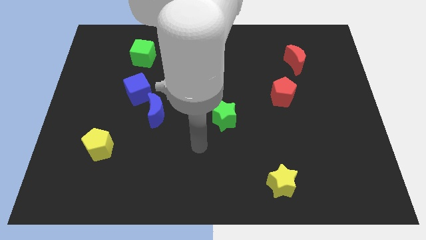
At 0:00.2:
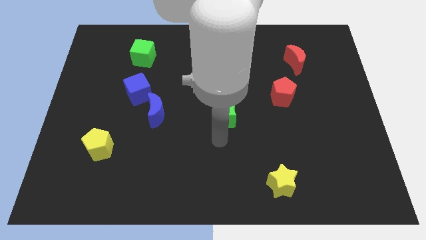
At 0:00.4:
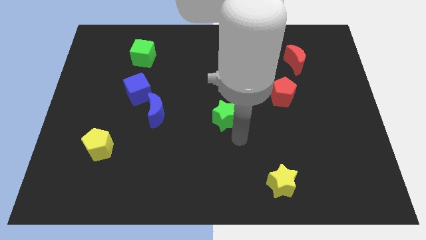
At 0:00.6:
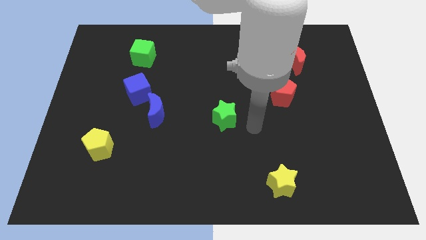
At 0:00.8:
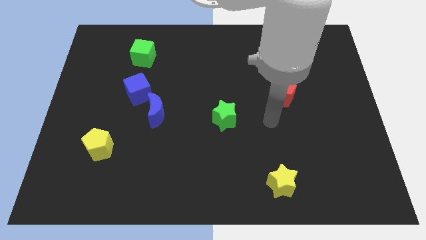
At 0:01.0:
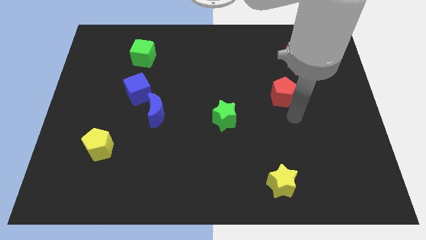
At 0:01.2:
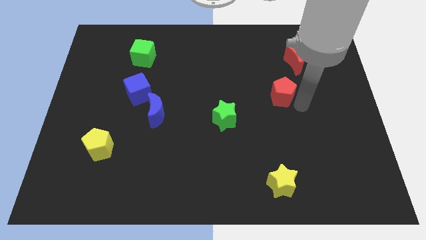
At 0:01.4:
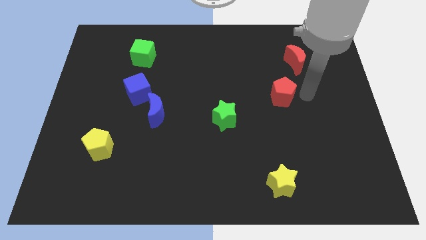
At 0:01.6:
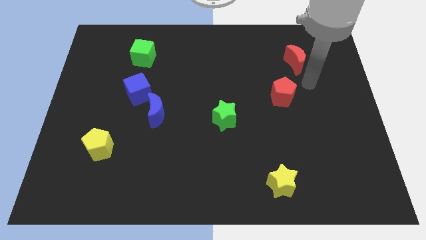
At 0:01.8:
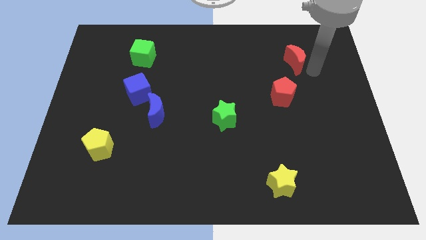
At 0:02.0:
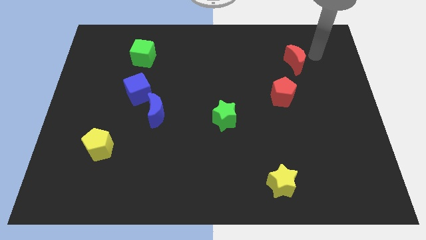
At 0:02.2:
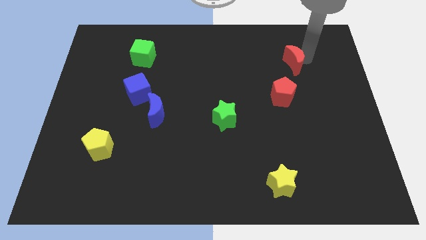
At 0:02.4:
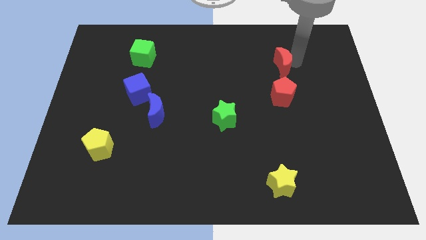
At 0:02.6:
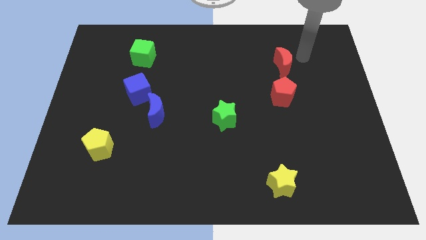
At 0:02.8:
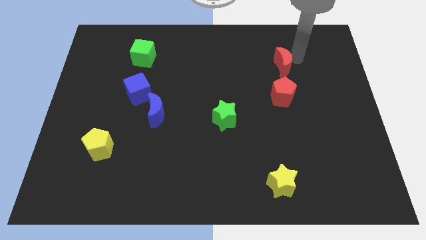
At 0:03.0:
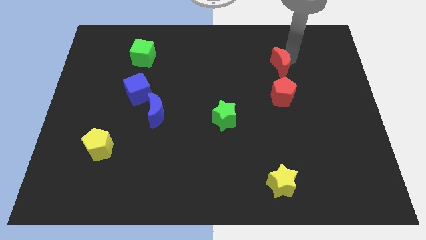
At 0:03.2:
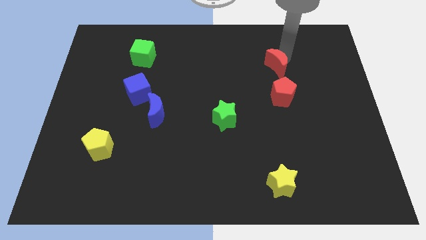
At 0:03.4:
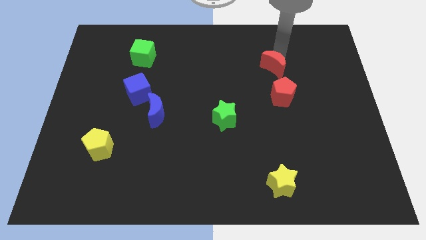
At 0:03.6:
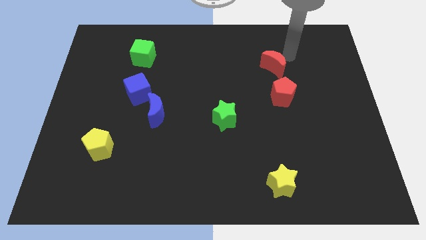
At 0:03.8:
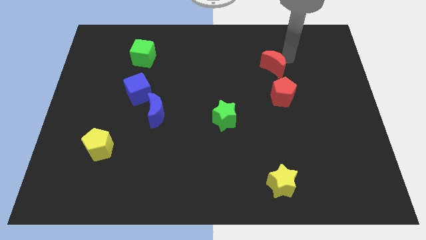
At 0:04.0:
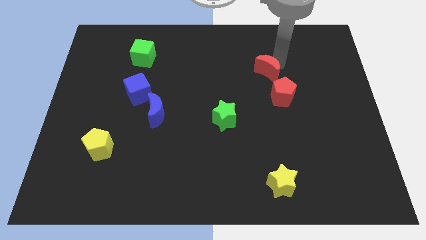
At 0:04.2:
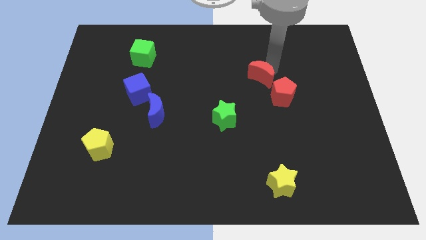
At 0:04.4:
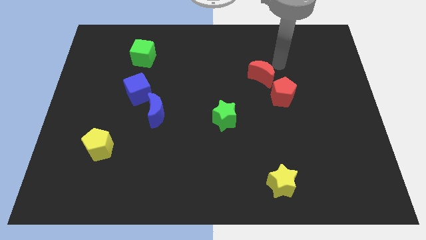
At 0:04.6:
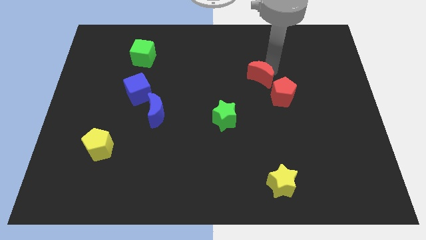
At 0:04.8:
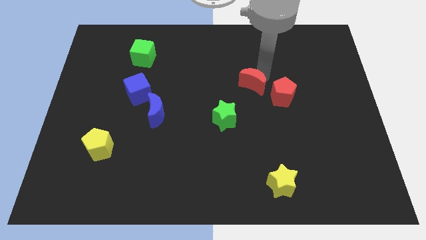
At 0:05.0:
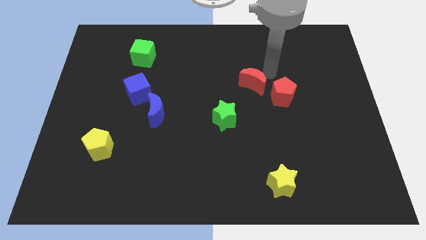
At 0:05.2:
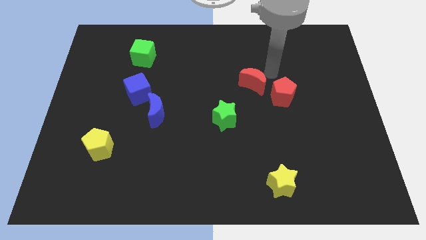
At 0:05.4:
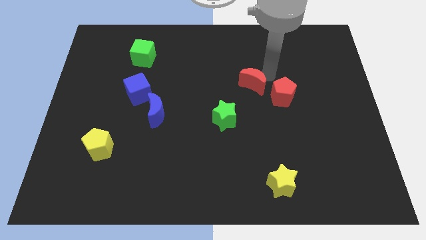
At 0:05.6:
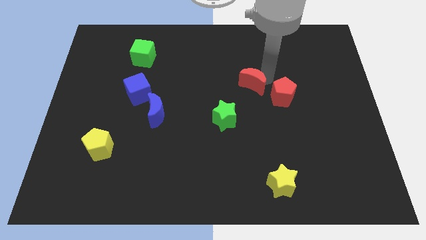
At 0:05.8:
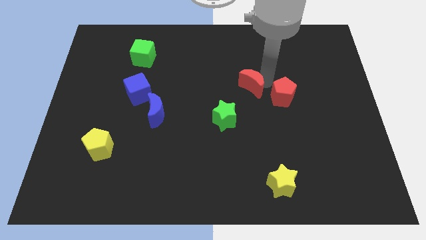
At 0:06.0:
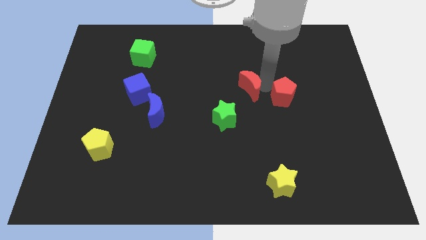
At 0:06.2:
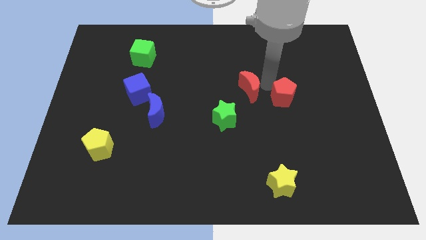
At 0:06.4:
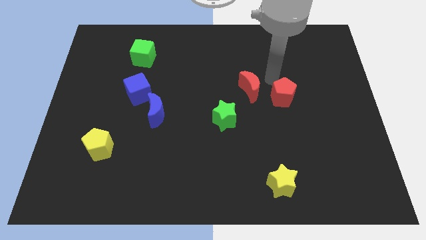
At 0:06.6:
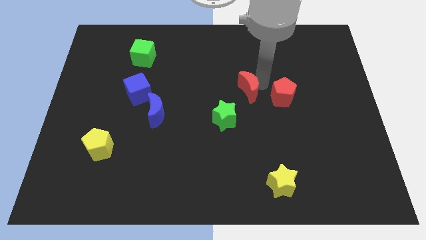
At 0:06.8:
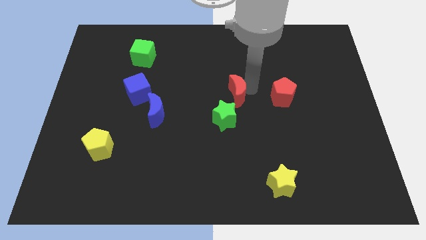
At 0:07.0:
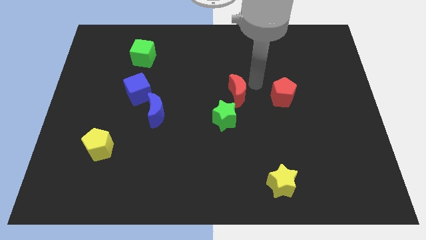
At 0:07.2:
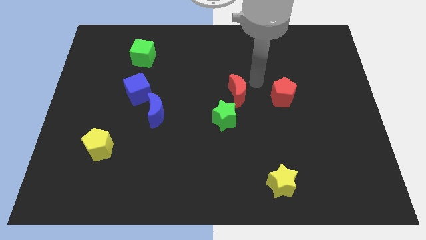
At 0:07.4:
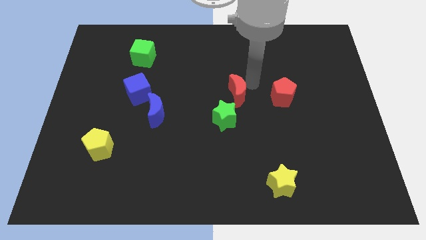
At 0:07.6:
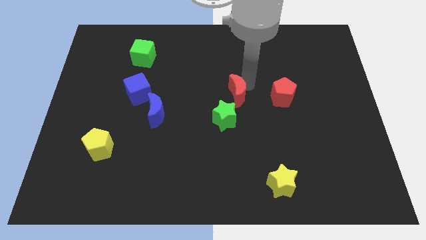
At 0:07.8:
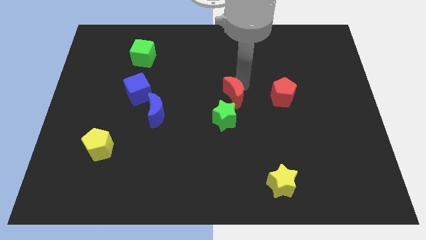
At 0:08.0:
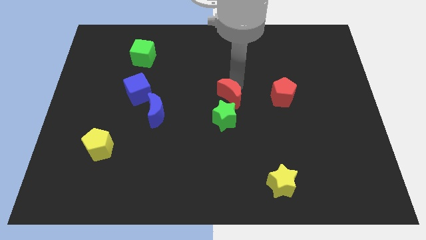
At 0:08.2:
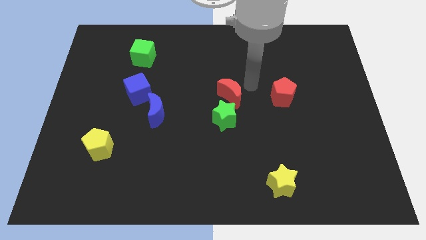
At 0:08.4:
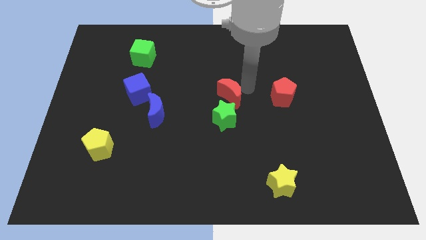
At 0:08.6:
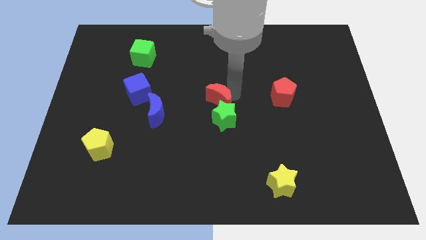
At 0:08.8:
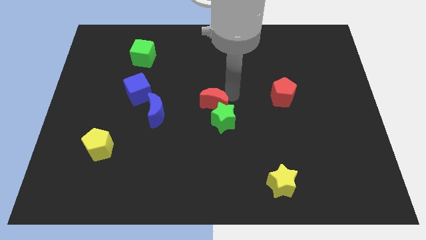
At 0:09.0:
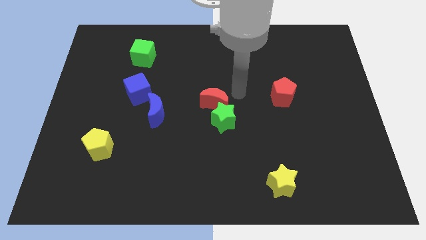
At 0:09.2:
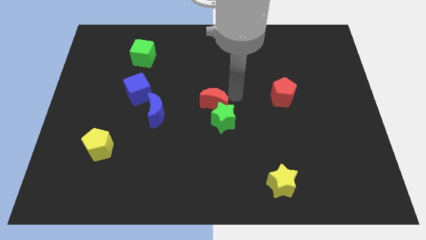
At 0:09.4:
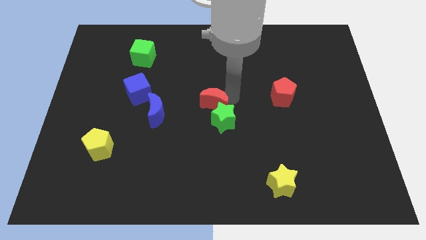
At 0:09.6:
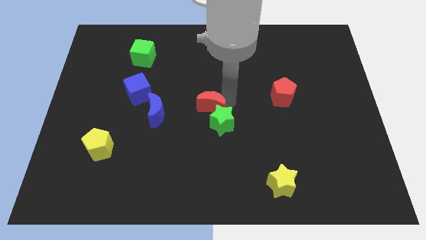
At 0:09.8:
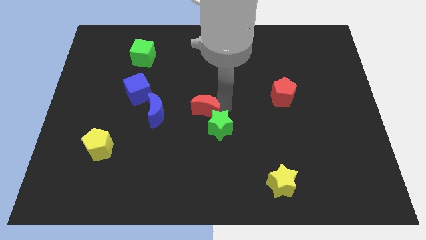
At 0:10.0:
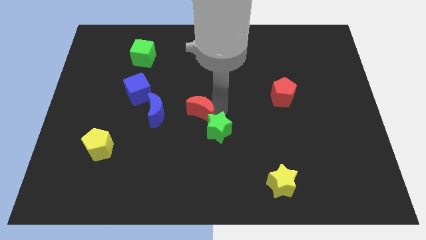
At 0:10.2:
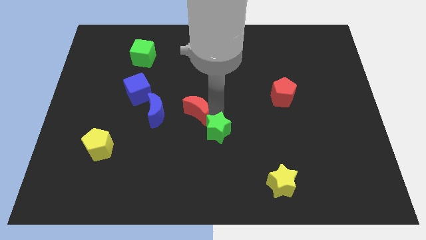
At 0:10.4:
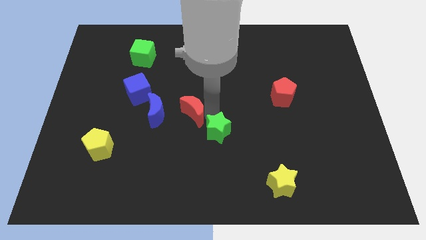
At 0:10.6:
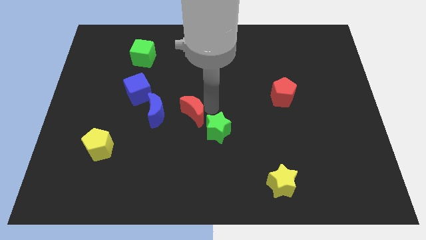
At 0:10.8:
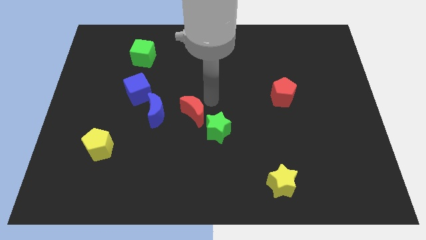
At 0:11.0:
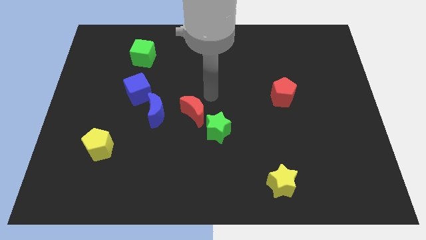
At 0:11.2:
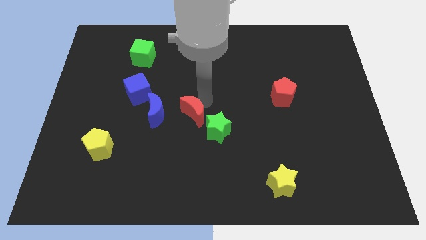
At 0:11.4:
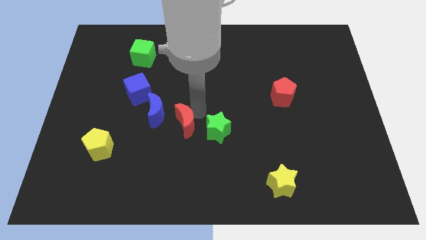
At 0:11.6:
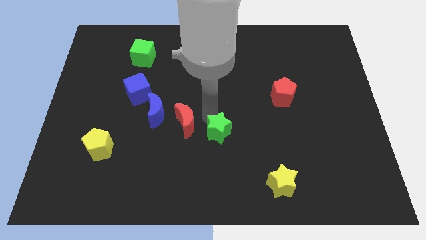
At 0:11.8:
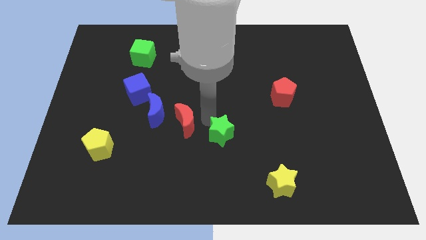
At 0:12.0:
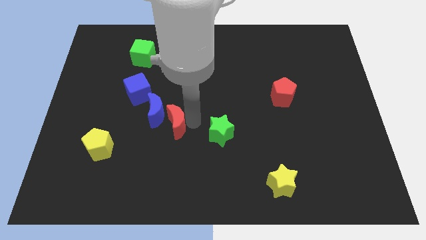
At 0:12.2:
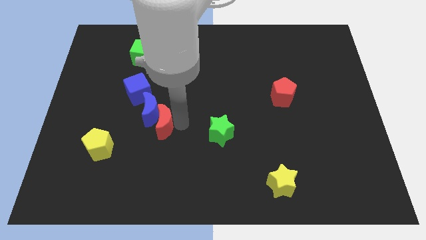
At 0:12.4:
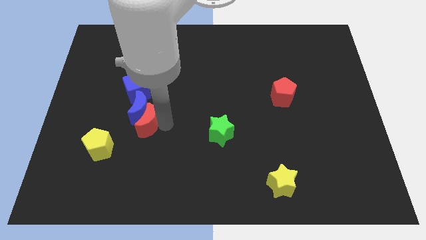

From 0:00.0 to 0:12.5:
push the red moon to the bottom of the blue cube

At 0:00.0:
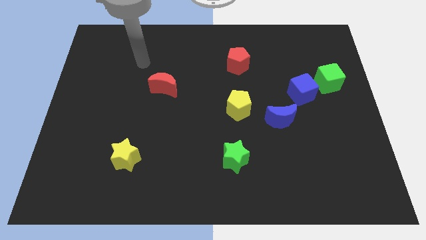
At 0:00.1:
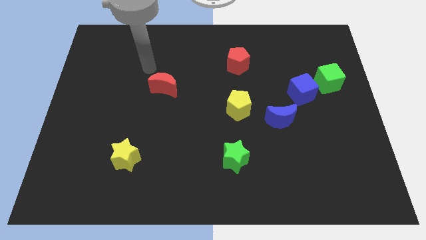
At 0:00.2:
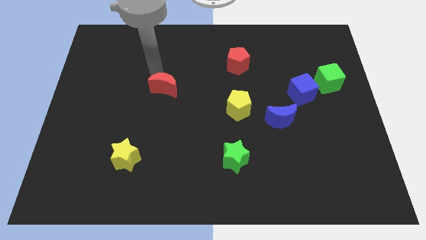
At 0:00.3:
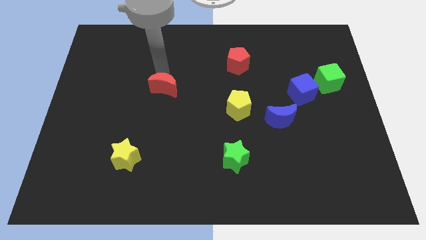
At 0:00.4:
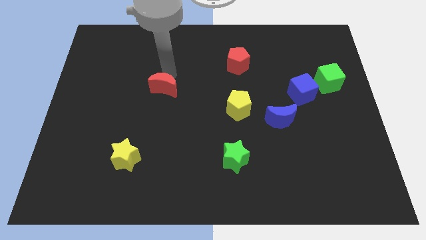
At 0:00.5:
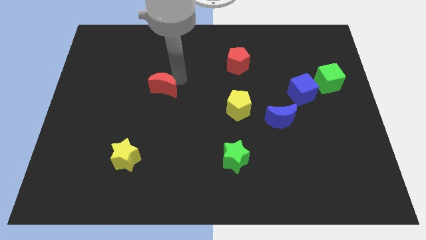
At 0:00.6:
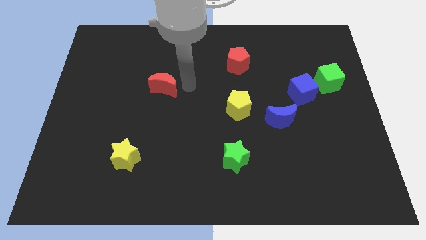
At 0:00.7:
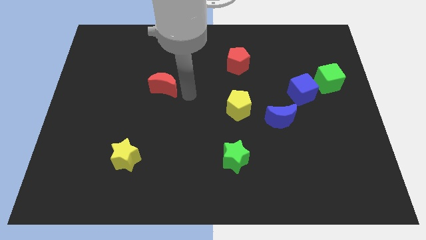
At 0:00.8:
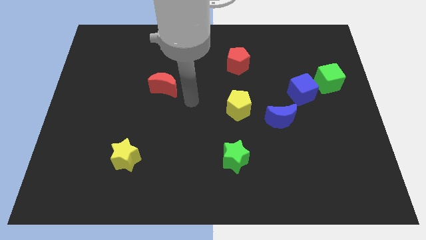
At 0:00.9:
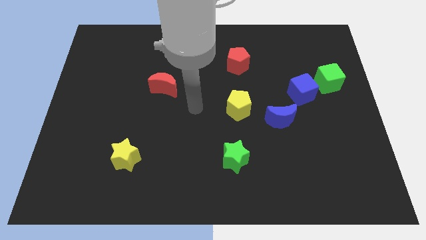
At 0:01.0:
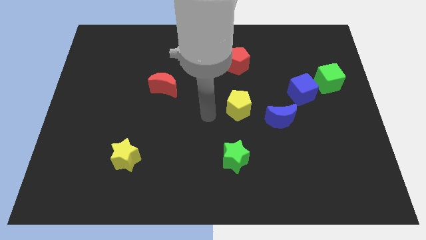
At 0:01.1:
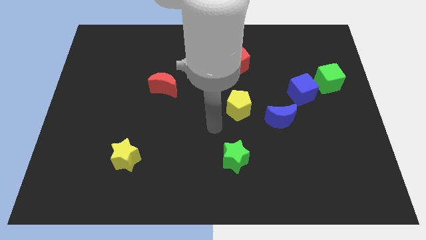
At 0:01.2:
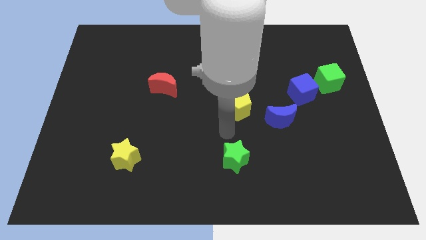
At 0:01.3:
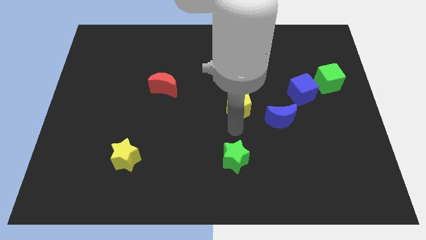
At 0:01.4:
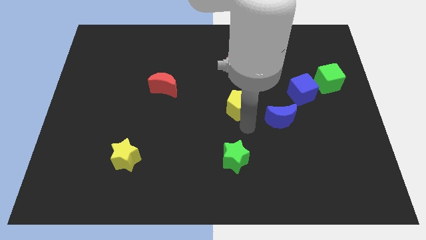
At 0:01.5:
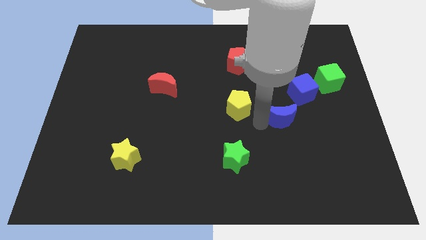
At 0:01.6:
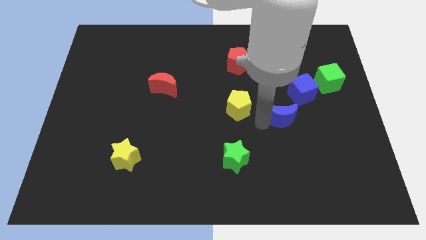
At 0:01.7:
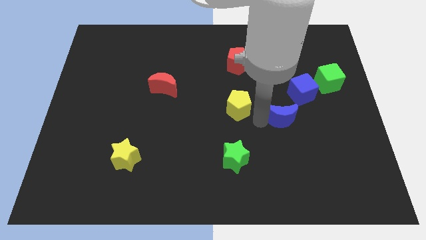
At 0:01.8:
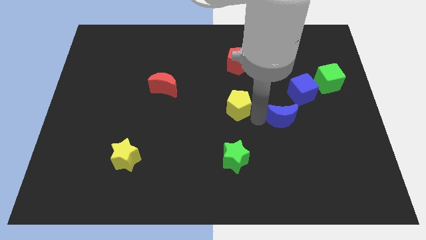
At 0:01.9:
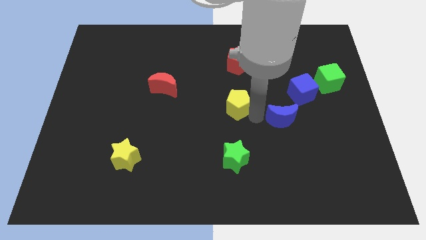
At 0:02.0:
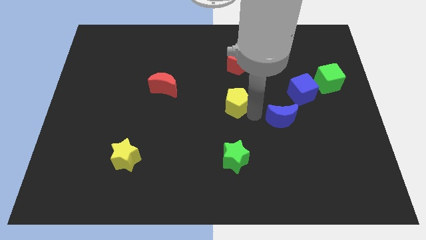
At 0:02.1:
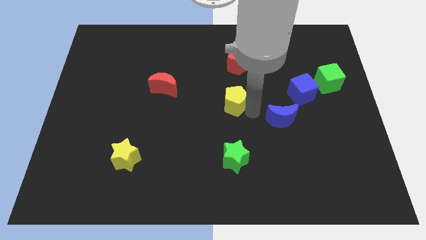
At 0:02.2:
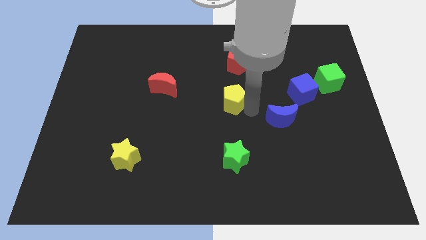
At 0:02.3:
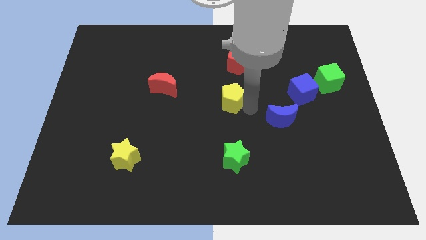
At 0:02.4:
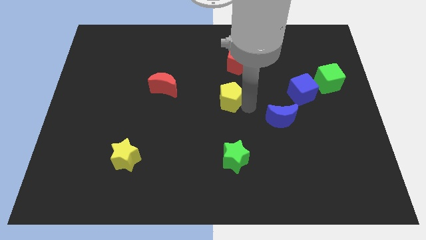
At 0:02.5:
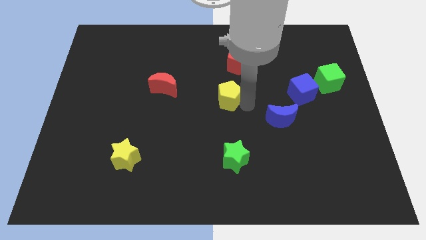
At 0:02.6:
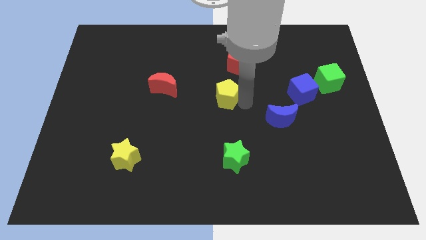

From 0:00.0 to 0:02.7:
move the yellow pentagon to the right of the red moon
